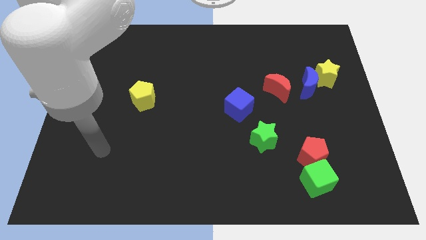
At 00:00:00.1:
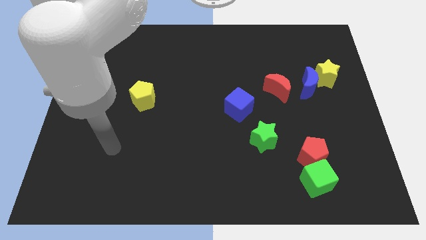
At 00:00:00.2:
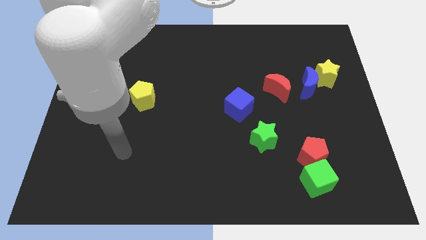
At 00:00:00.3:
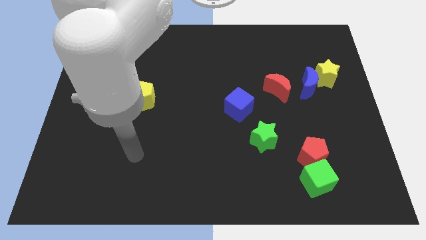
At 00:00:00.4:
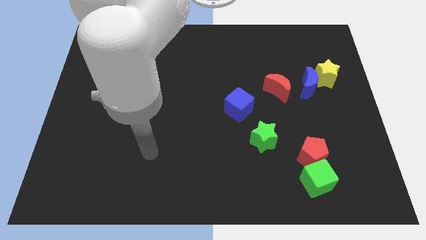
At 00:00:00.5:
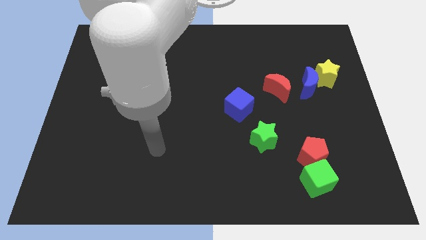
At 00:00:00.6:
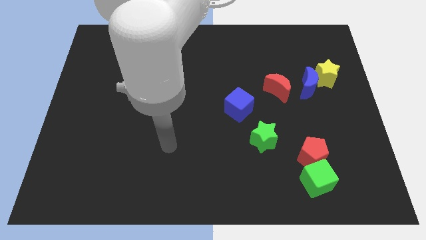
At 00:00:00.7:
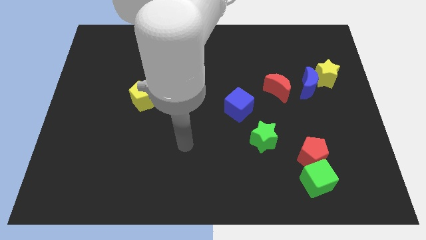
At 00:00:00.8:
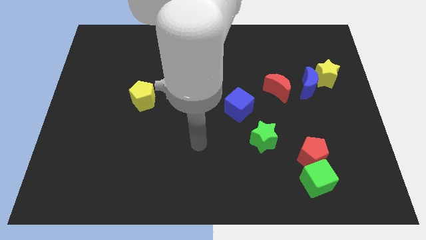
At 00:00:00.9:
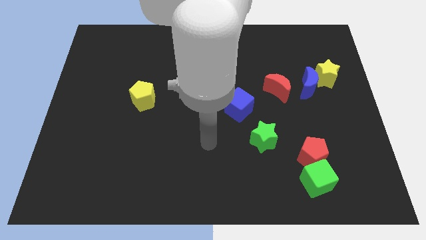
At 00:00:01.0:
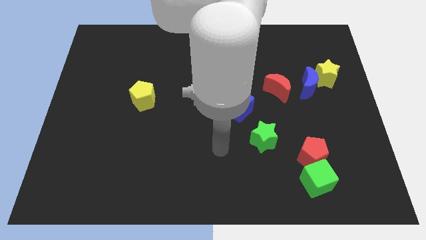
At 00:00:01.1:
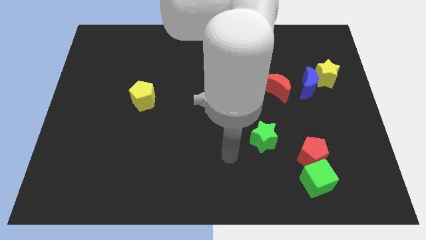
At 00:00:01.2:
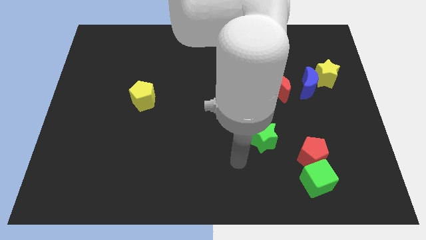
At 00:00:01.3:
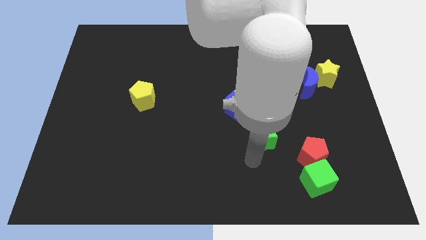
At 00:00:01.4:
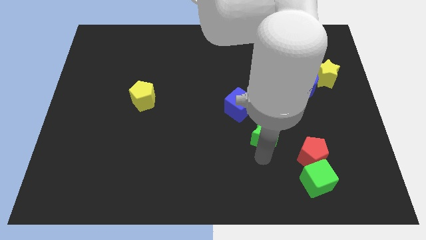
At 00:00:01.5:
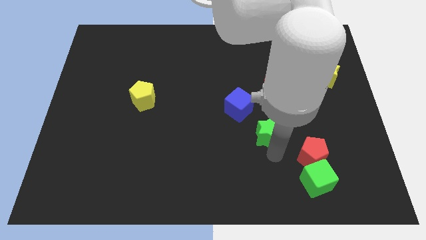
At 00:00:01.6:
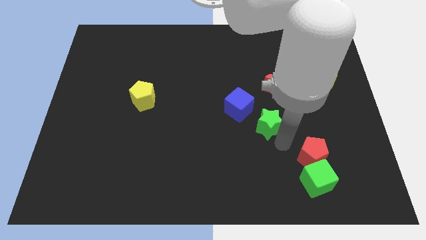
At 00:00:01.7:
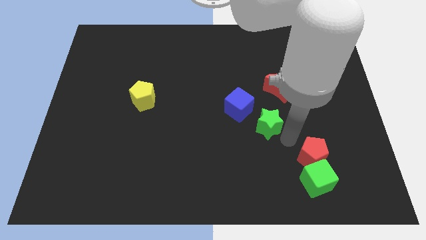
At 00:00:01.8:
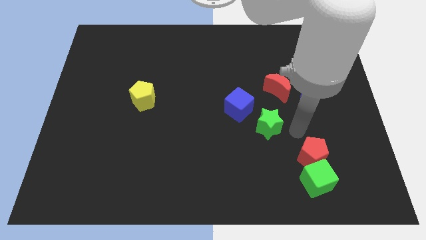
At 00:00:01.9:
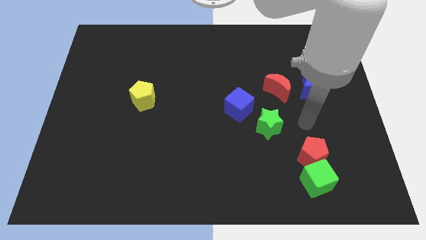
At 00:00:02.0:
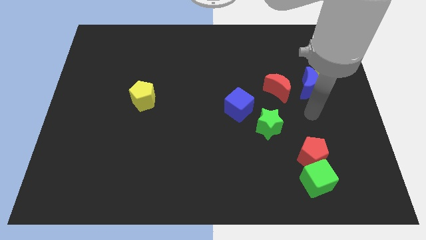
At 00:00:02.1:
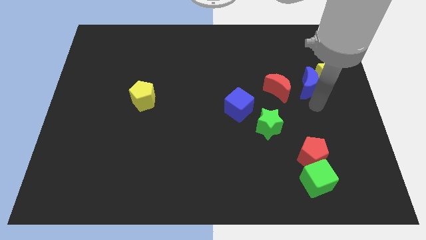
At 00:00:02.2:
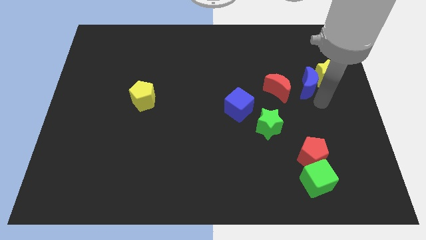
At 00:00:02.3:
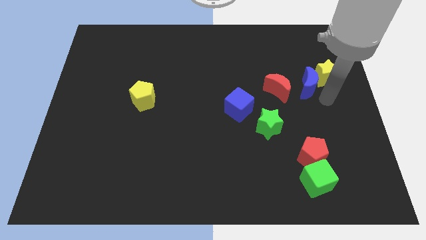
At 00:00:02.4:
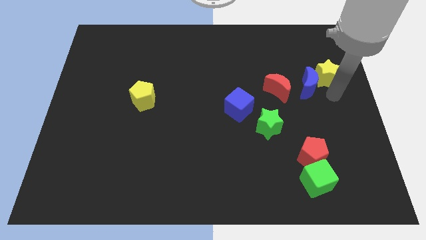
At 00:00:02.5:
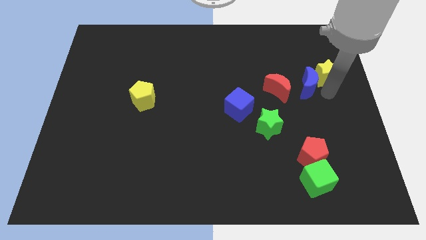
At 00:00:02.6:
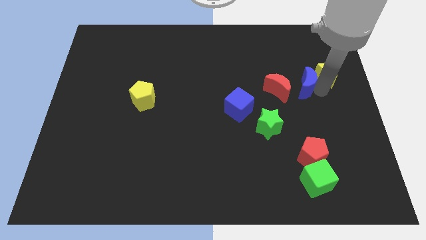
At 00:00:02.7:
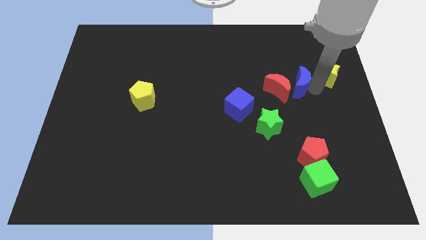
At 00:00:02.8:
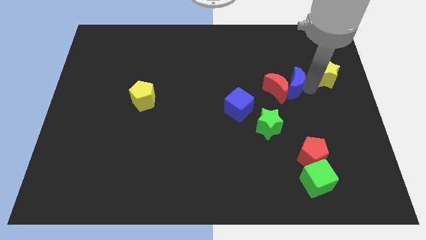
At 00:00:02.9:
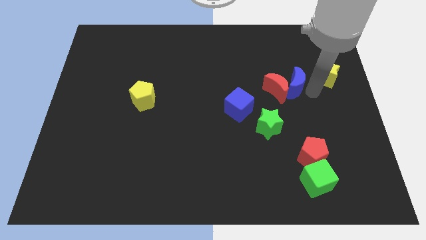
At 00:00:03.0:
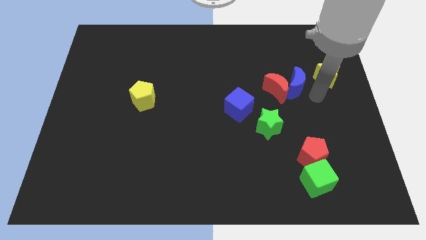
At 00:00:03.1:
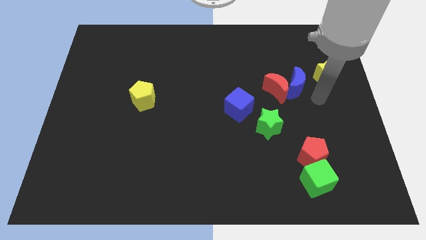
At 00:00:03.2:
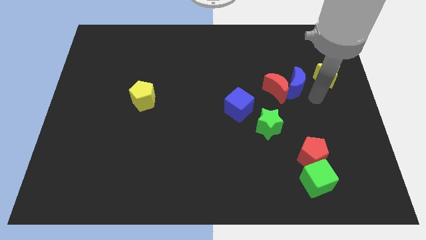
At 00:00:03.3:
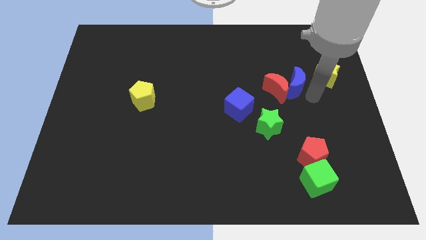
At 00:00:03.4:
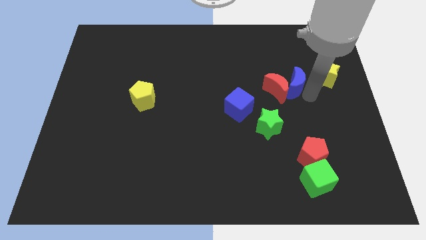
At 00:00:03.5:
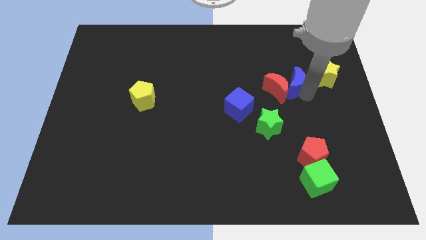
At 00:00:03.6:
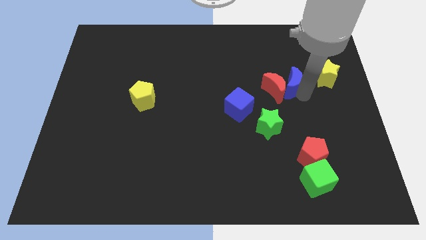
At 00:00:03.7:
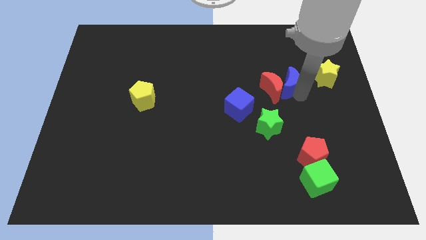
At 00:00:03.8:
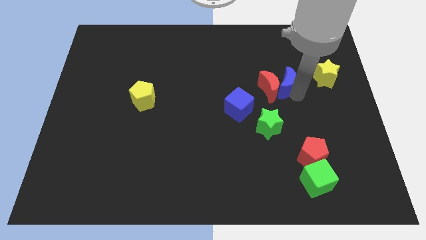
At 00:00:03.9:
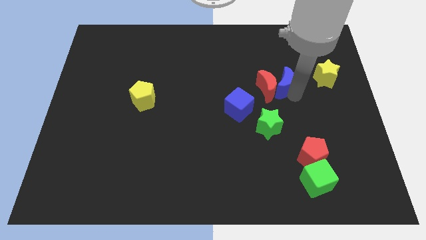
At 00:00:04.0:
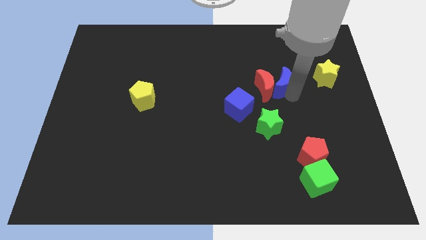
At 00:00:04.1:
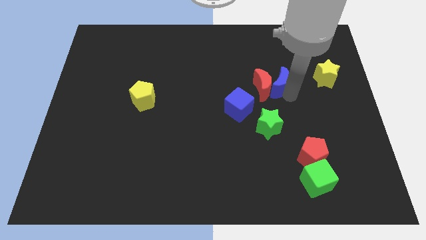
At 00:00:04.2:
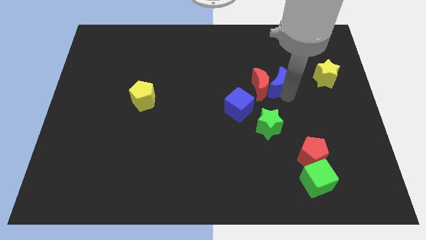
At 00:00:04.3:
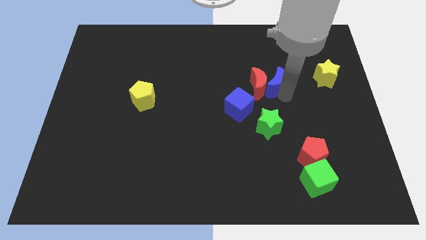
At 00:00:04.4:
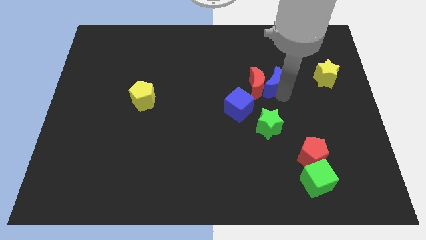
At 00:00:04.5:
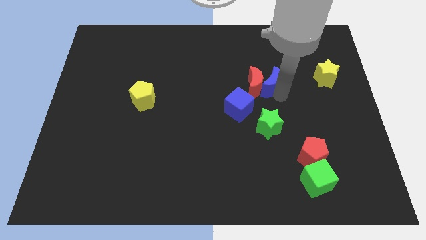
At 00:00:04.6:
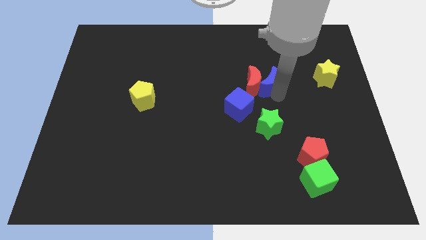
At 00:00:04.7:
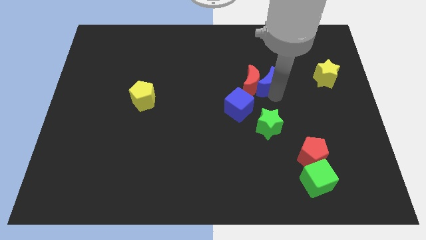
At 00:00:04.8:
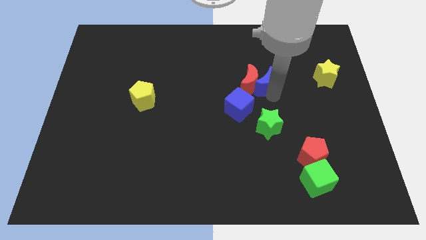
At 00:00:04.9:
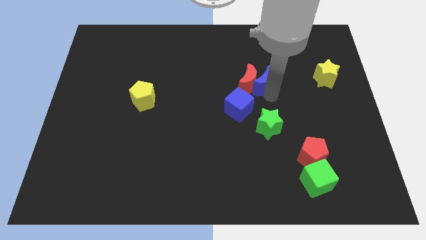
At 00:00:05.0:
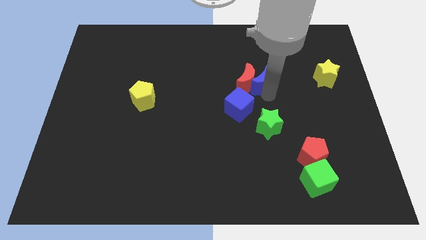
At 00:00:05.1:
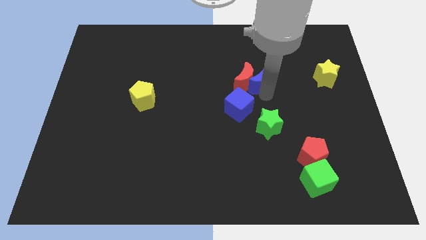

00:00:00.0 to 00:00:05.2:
put the blue moon to the center

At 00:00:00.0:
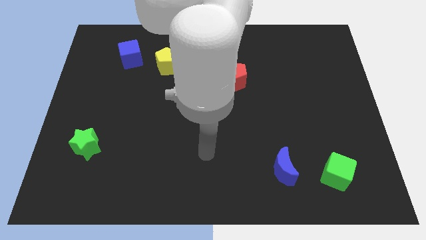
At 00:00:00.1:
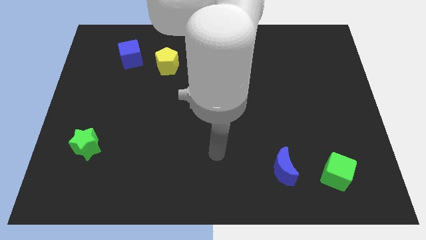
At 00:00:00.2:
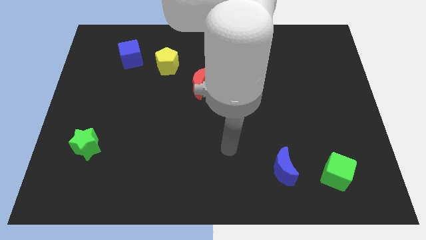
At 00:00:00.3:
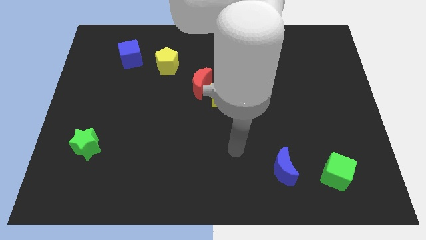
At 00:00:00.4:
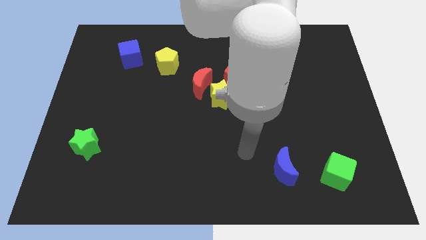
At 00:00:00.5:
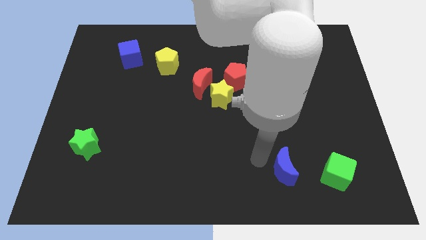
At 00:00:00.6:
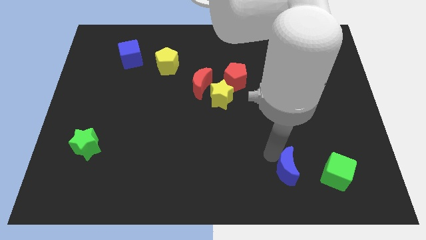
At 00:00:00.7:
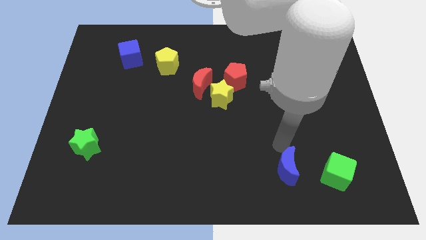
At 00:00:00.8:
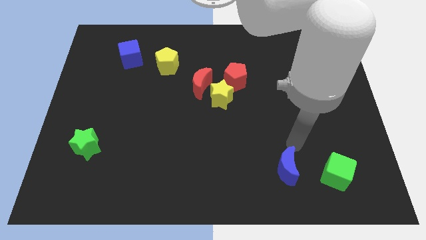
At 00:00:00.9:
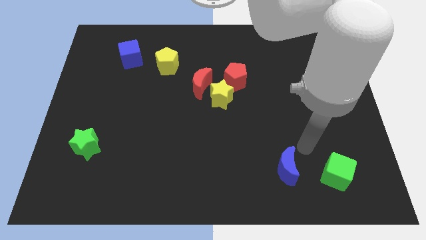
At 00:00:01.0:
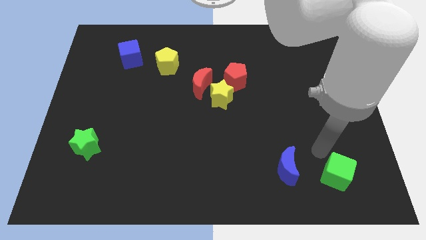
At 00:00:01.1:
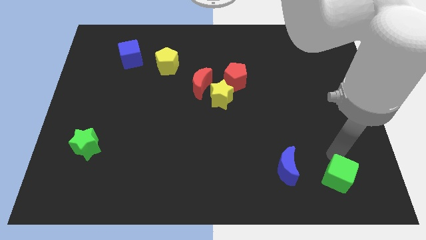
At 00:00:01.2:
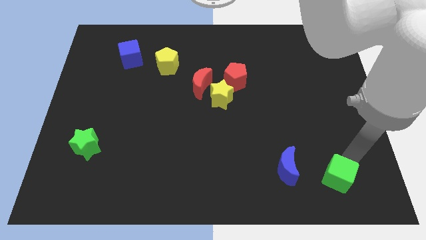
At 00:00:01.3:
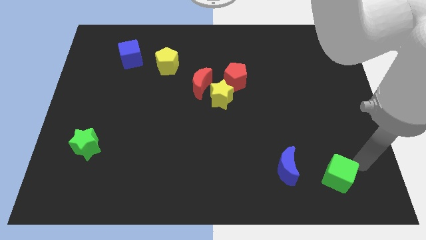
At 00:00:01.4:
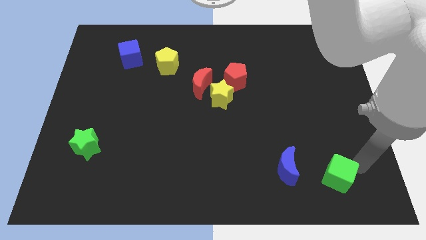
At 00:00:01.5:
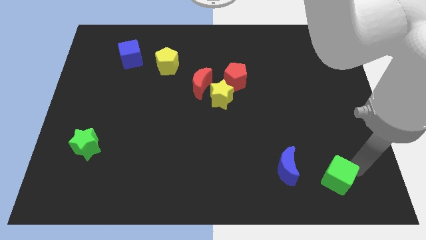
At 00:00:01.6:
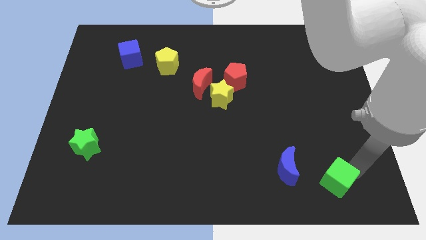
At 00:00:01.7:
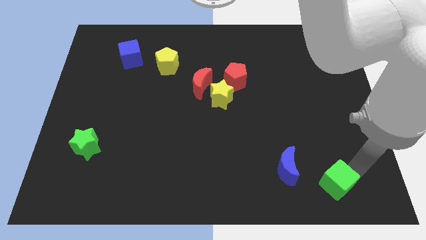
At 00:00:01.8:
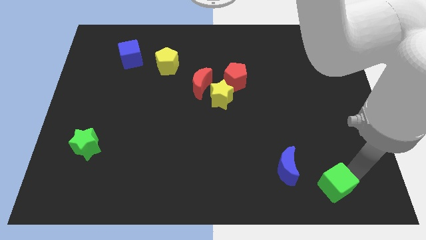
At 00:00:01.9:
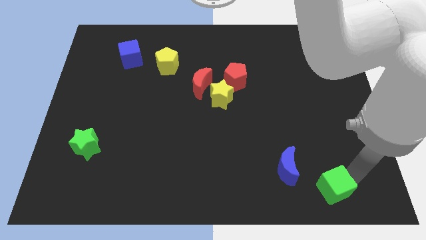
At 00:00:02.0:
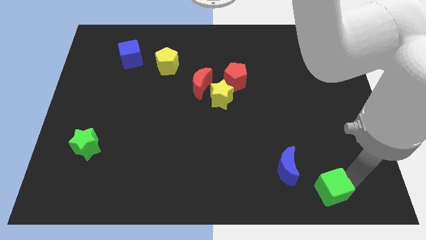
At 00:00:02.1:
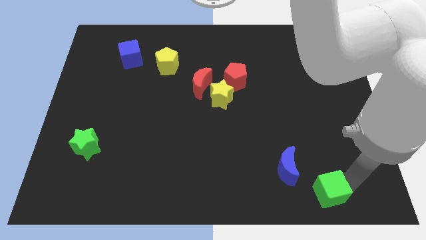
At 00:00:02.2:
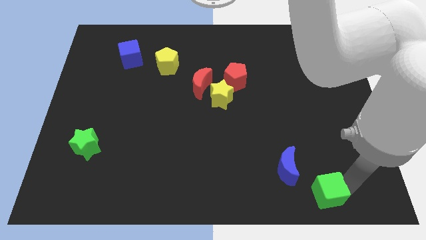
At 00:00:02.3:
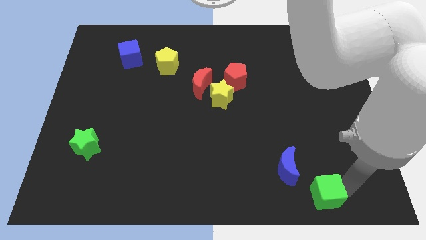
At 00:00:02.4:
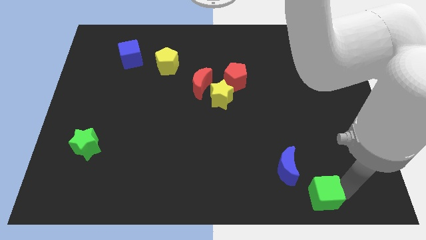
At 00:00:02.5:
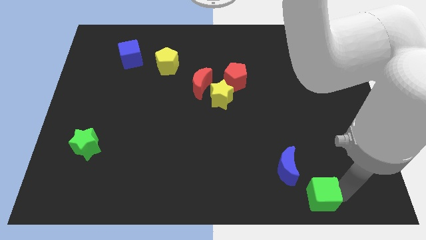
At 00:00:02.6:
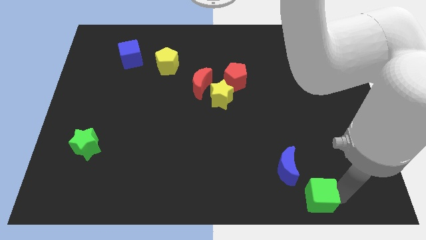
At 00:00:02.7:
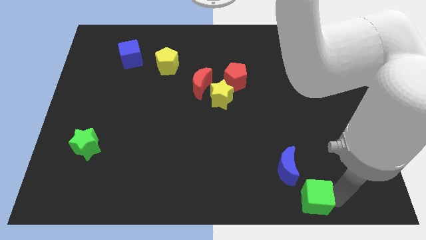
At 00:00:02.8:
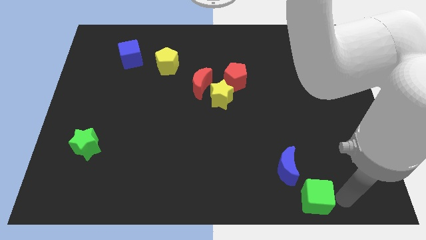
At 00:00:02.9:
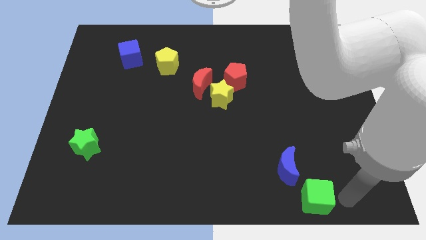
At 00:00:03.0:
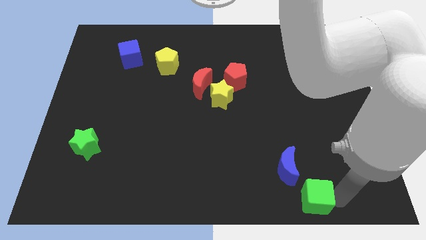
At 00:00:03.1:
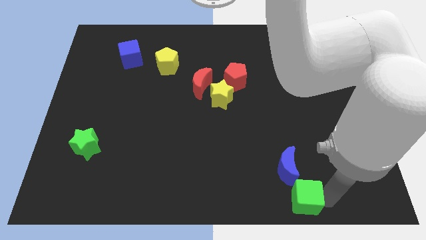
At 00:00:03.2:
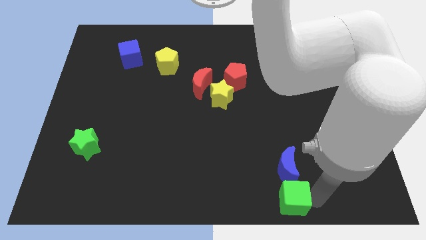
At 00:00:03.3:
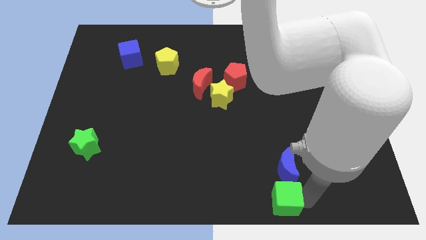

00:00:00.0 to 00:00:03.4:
push the green cube to the bottom side
